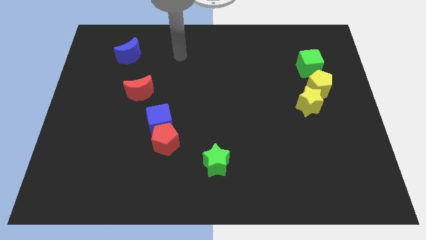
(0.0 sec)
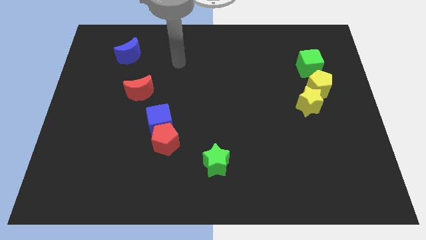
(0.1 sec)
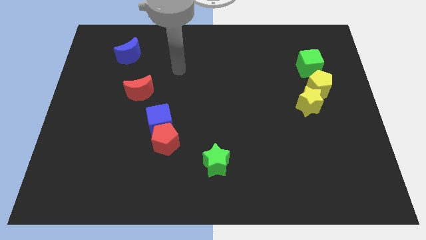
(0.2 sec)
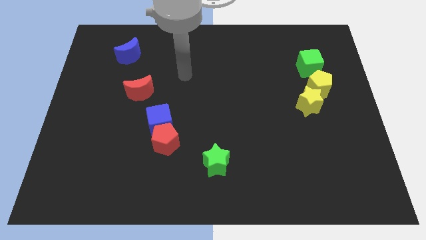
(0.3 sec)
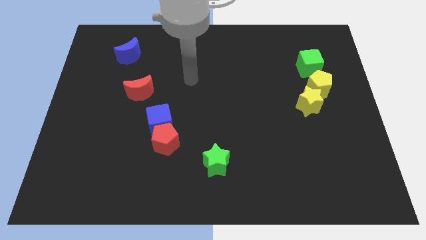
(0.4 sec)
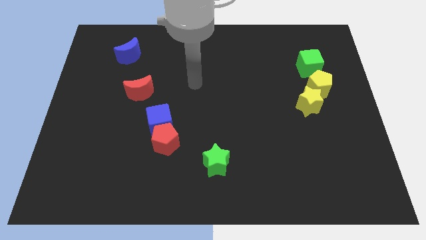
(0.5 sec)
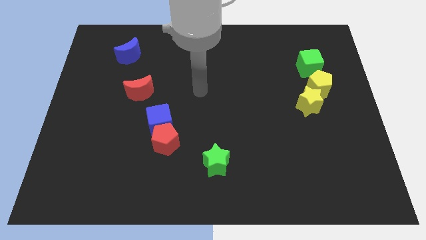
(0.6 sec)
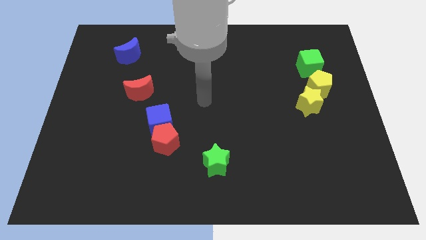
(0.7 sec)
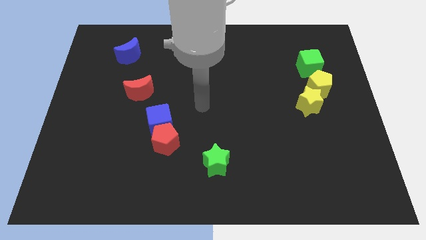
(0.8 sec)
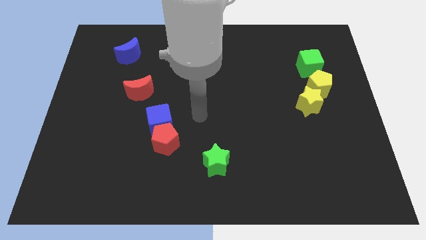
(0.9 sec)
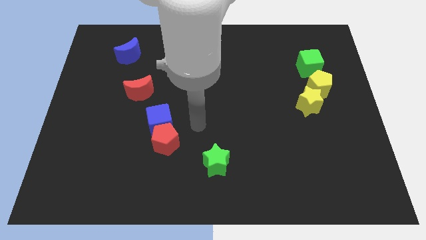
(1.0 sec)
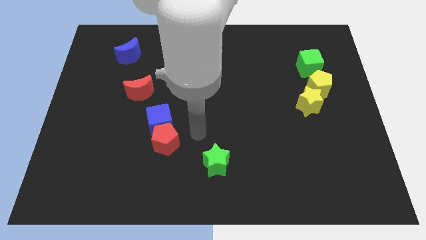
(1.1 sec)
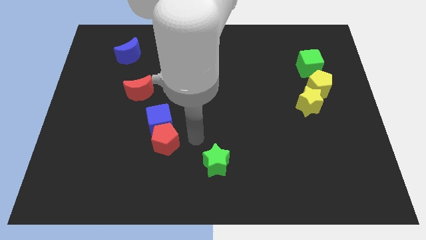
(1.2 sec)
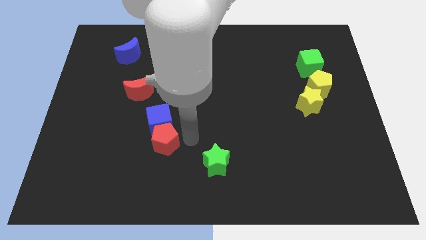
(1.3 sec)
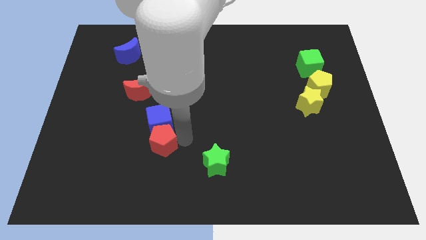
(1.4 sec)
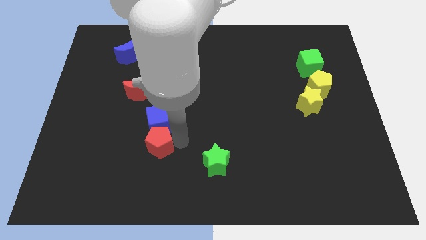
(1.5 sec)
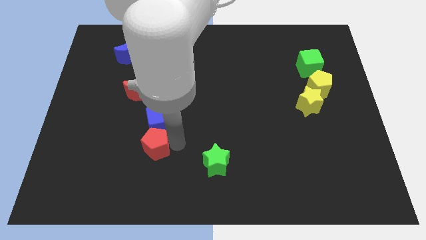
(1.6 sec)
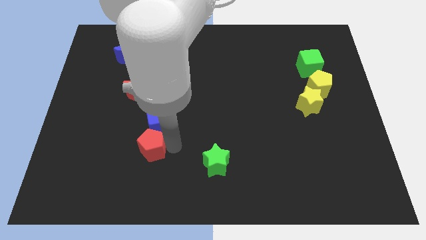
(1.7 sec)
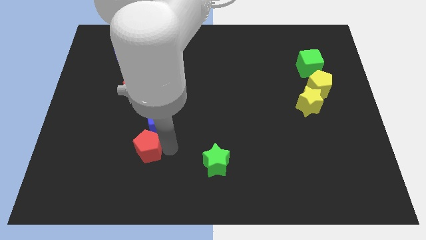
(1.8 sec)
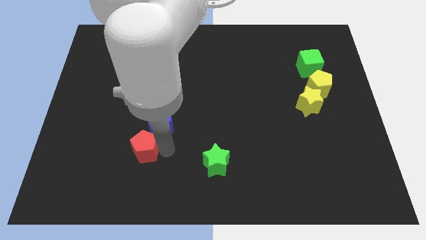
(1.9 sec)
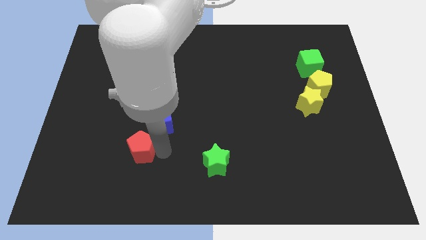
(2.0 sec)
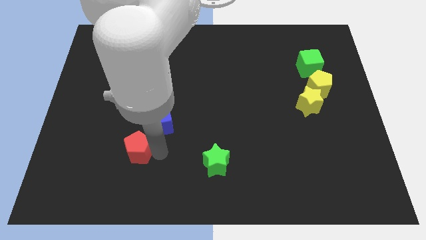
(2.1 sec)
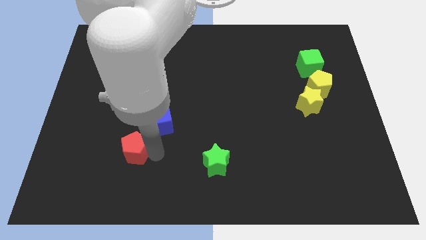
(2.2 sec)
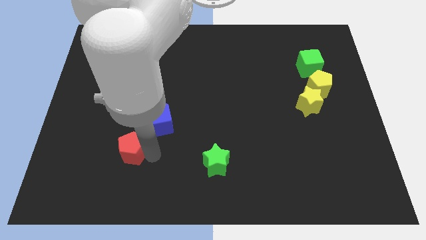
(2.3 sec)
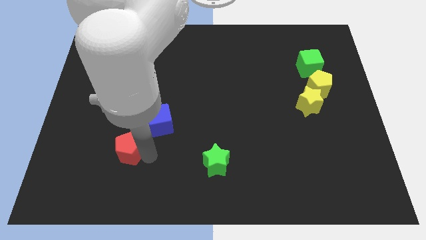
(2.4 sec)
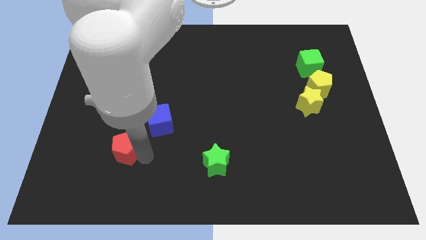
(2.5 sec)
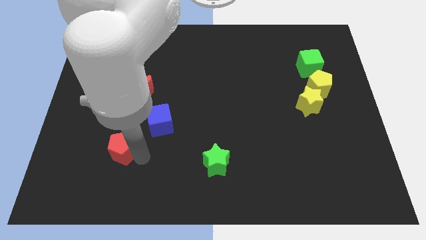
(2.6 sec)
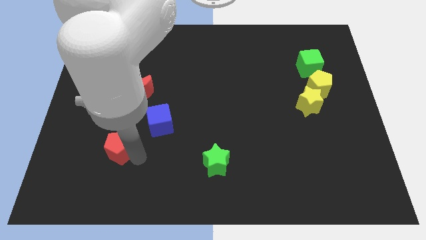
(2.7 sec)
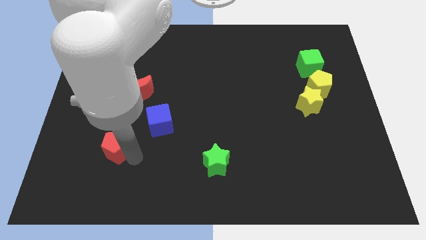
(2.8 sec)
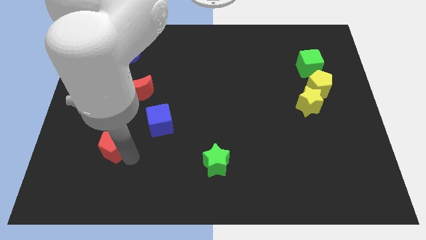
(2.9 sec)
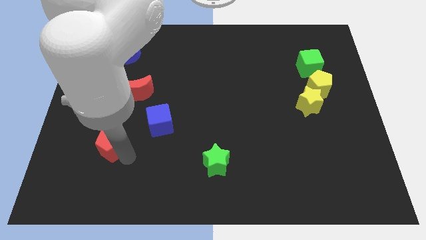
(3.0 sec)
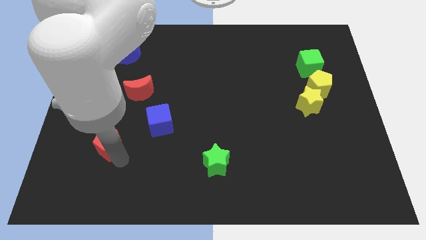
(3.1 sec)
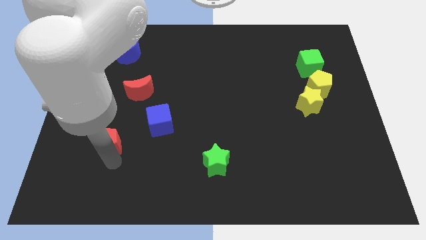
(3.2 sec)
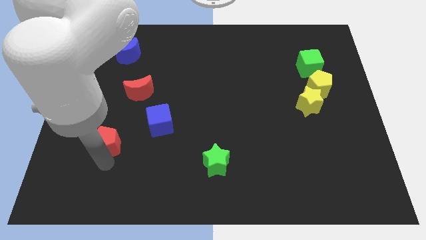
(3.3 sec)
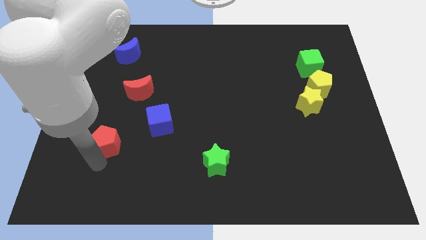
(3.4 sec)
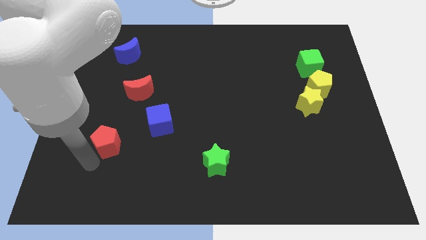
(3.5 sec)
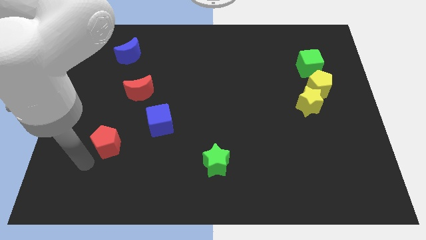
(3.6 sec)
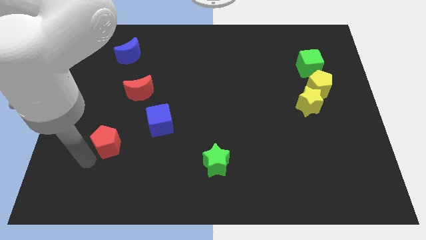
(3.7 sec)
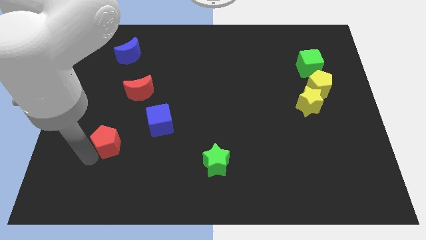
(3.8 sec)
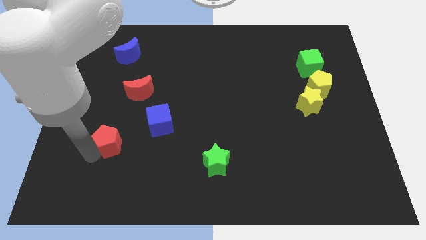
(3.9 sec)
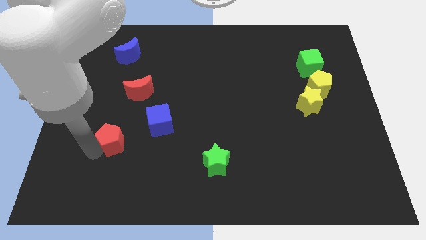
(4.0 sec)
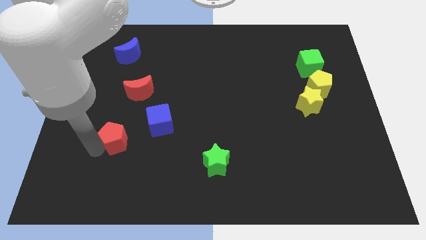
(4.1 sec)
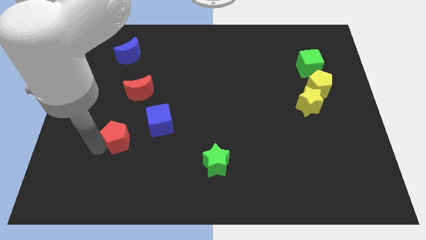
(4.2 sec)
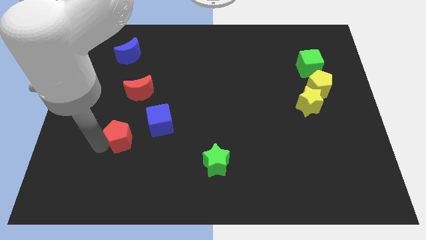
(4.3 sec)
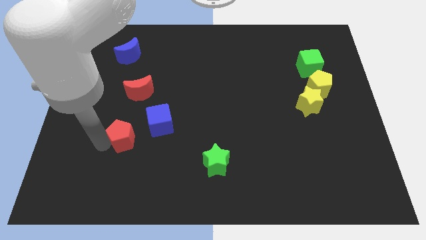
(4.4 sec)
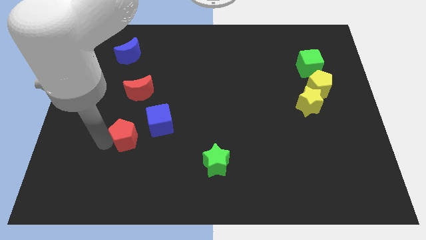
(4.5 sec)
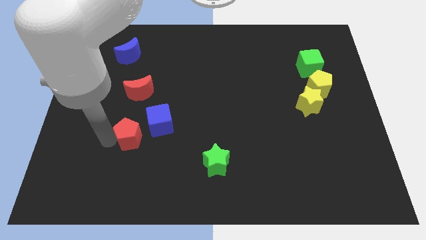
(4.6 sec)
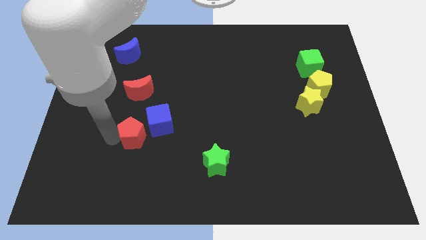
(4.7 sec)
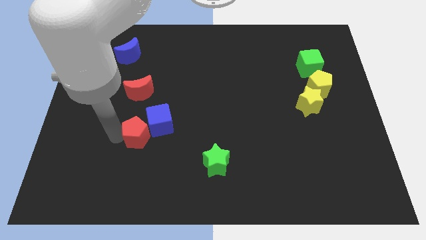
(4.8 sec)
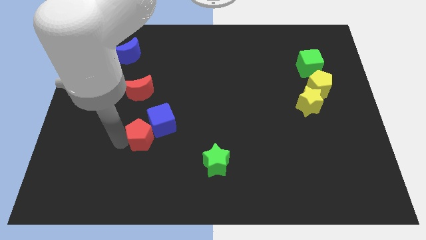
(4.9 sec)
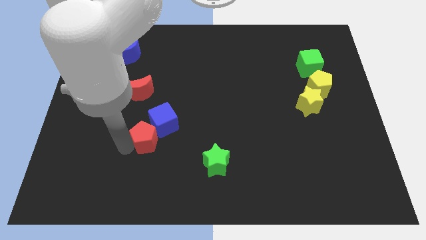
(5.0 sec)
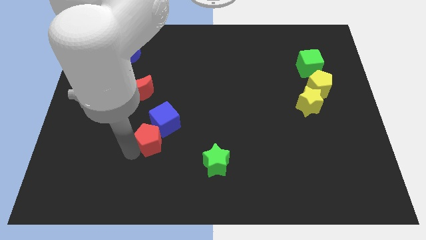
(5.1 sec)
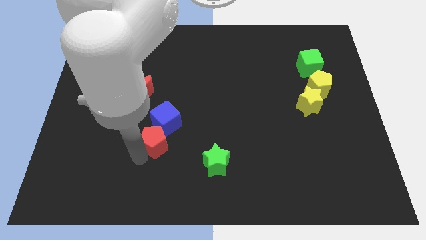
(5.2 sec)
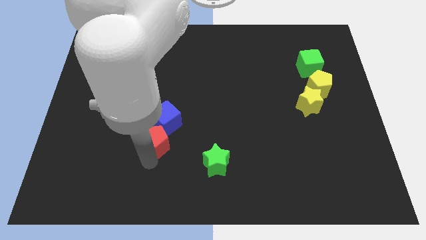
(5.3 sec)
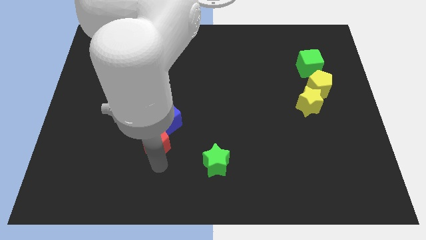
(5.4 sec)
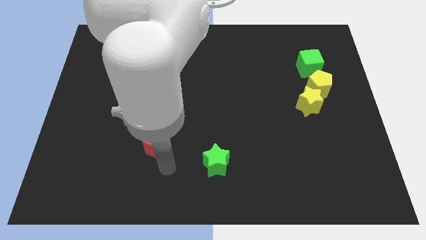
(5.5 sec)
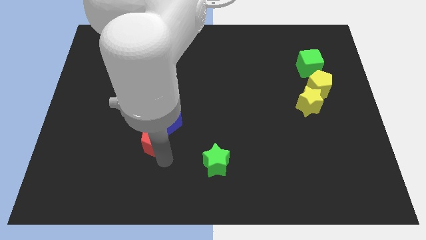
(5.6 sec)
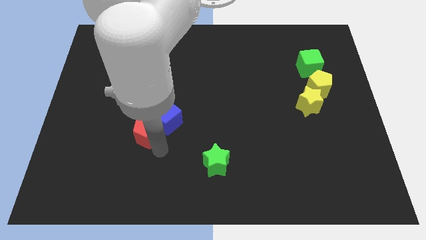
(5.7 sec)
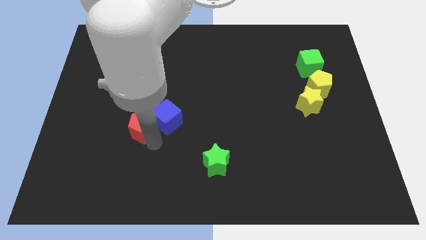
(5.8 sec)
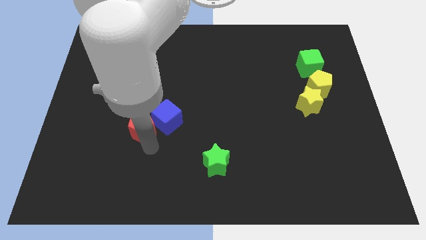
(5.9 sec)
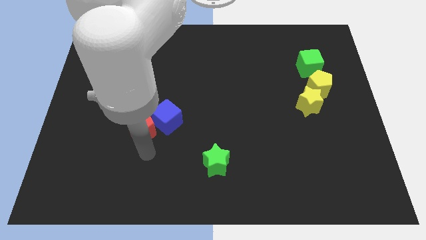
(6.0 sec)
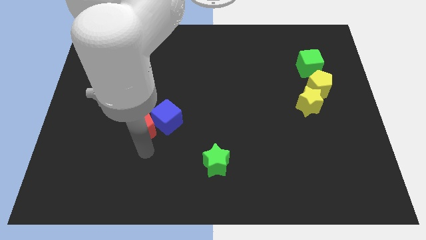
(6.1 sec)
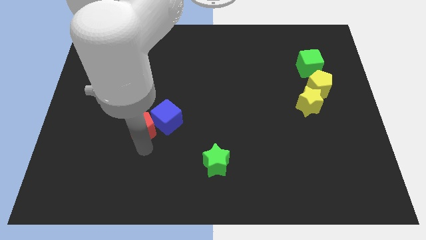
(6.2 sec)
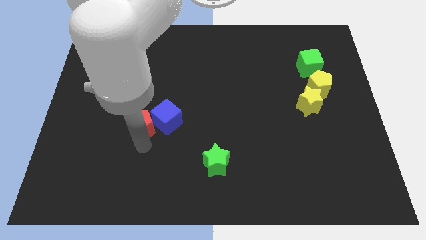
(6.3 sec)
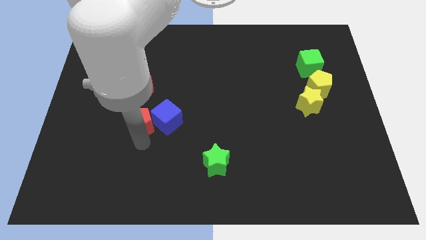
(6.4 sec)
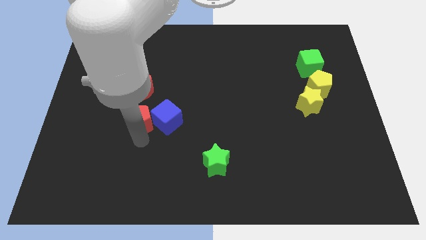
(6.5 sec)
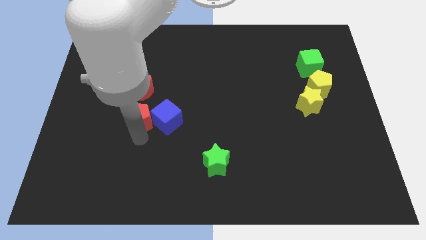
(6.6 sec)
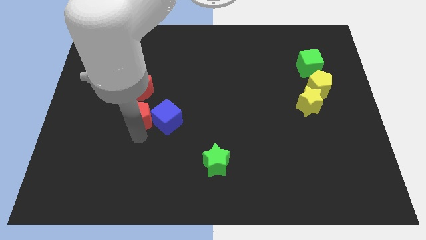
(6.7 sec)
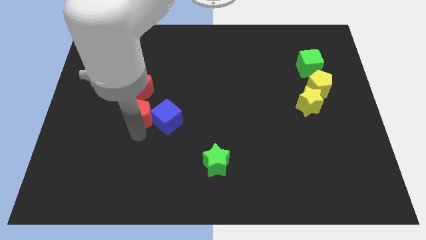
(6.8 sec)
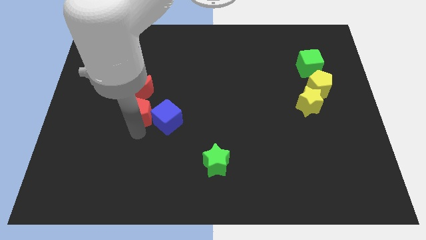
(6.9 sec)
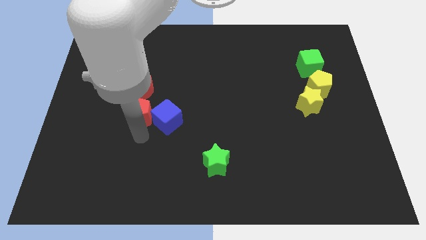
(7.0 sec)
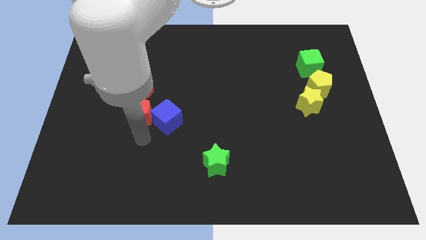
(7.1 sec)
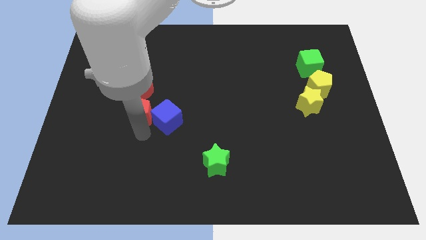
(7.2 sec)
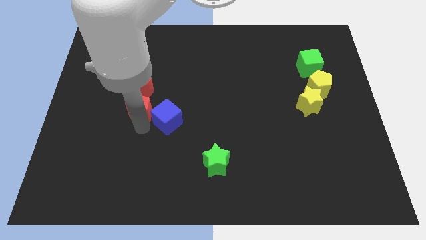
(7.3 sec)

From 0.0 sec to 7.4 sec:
put the red pentagon to the red moon

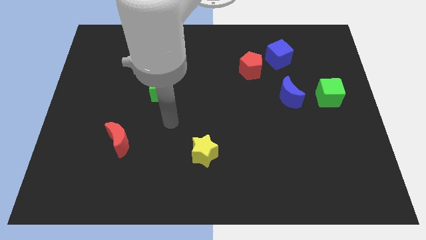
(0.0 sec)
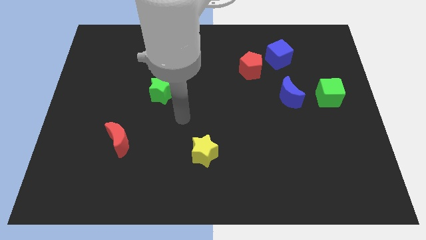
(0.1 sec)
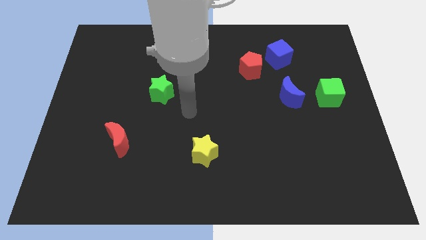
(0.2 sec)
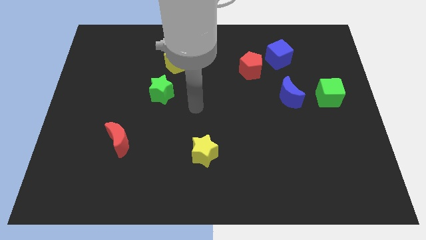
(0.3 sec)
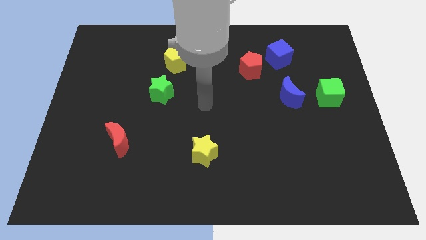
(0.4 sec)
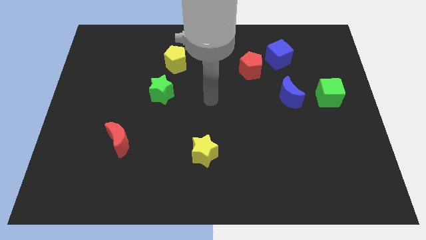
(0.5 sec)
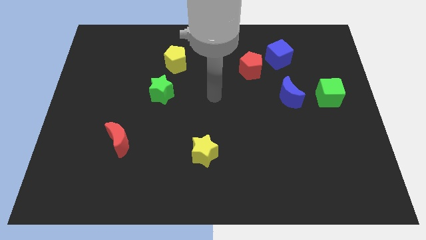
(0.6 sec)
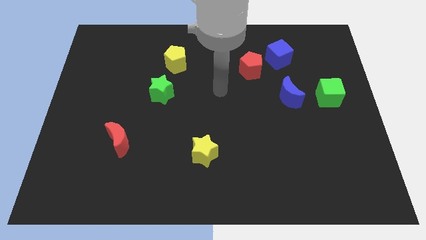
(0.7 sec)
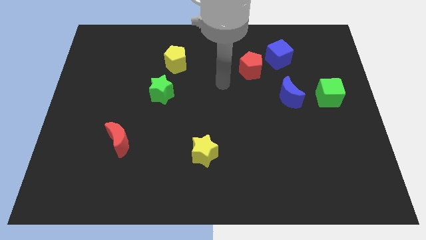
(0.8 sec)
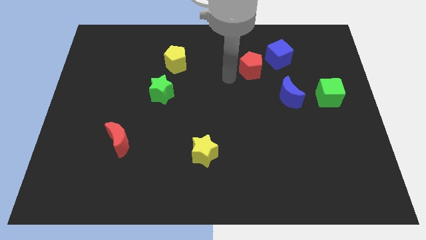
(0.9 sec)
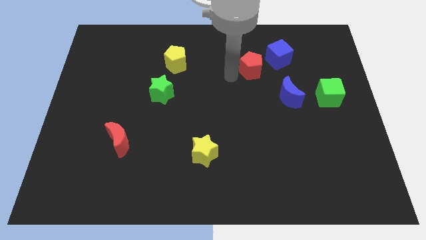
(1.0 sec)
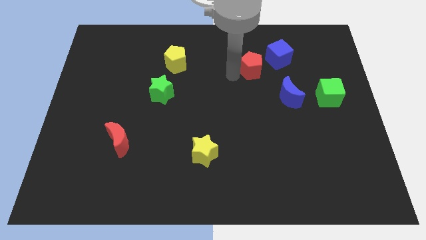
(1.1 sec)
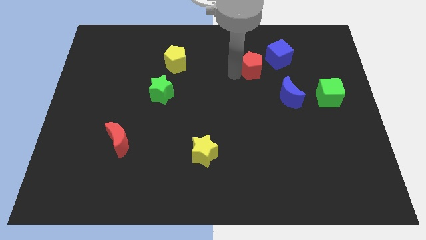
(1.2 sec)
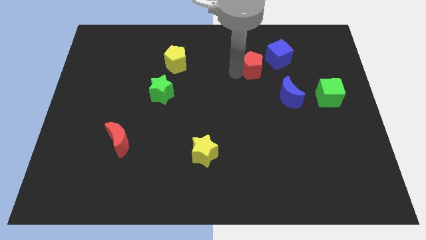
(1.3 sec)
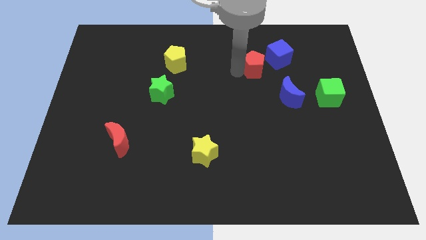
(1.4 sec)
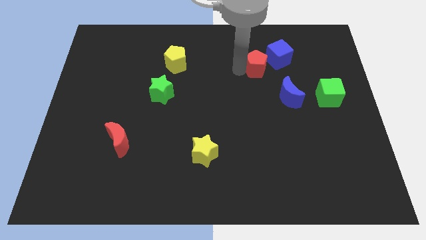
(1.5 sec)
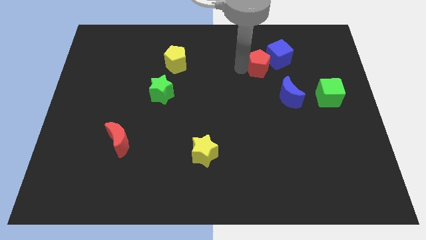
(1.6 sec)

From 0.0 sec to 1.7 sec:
put the red pentagon to the blue cube
